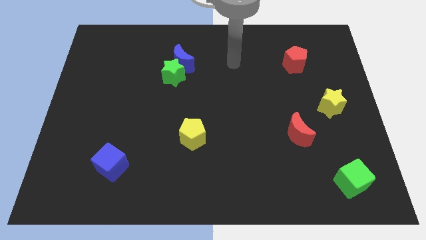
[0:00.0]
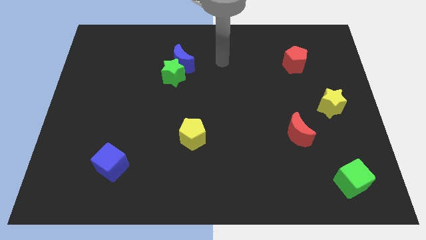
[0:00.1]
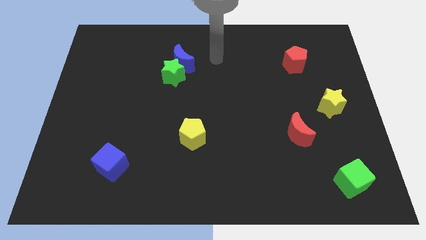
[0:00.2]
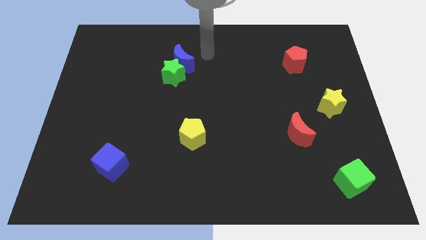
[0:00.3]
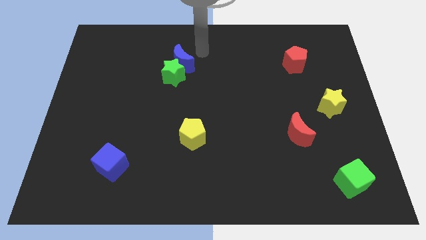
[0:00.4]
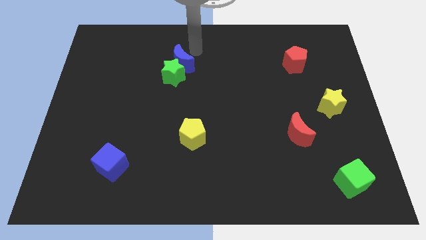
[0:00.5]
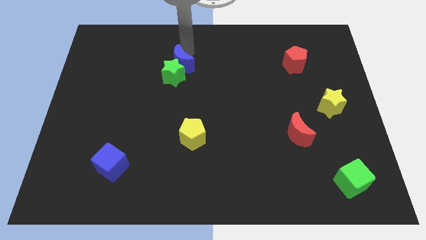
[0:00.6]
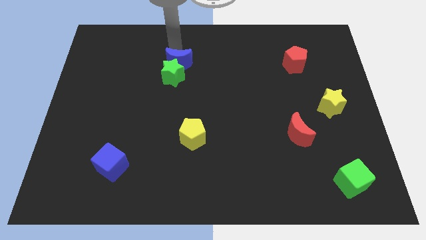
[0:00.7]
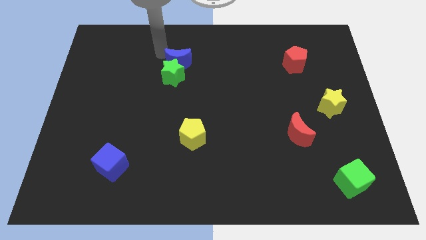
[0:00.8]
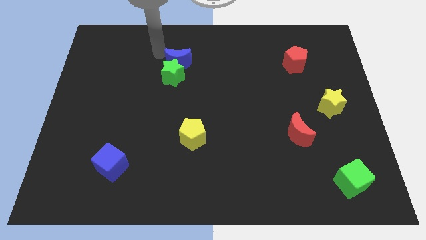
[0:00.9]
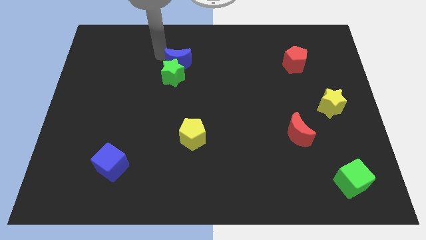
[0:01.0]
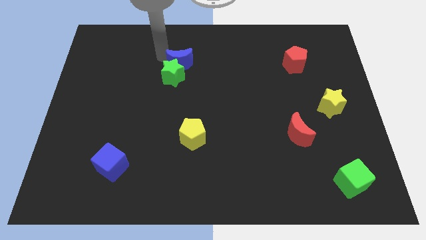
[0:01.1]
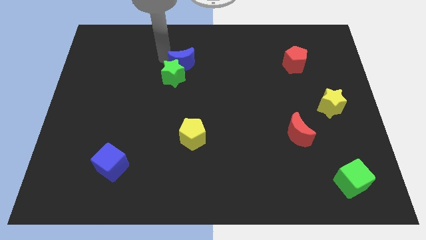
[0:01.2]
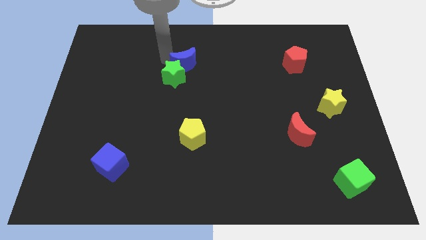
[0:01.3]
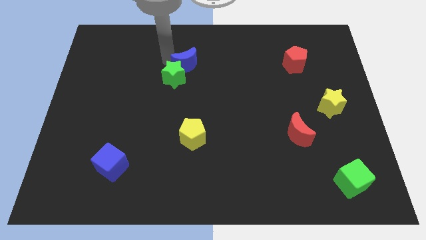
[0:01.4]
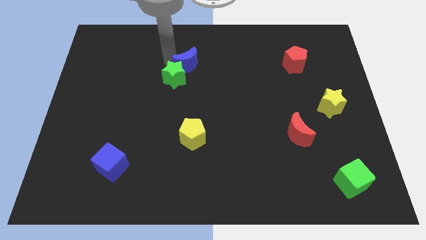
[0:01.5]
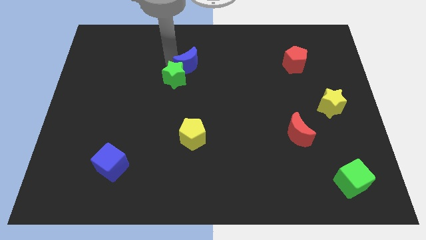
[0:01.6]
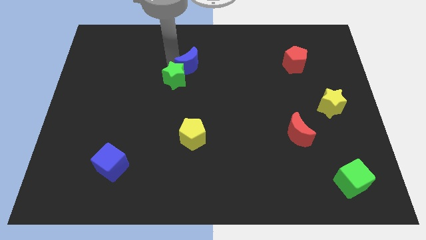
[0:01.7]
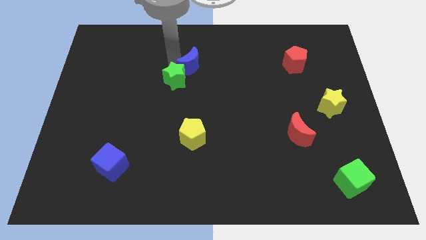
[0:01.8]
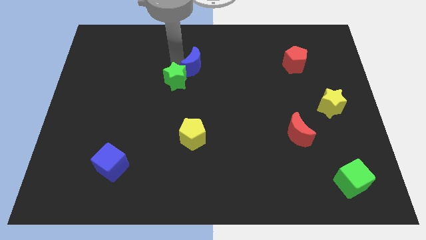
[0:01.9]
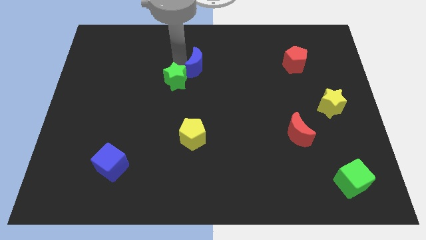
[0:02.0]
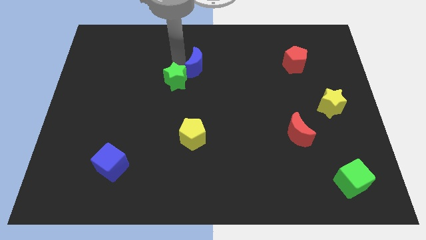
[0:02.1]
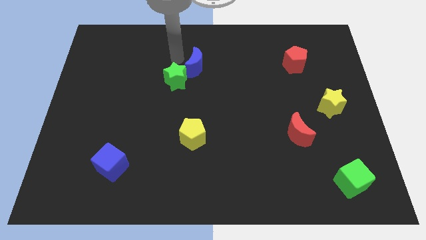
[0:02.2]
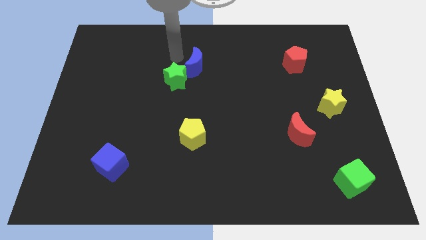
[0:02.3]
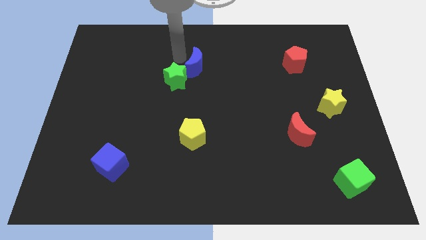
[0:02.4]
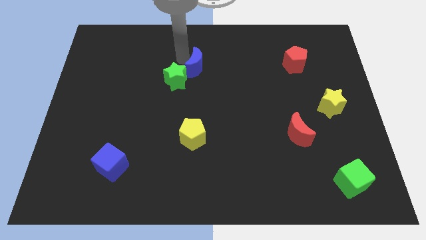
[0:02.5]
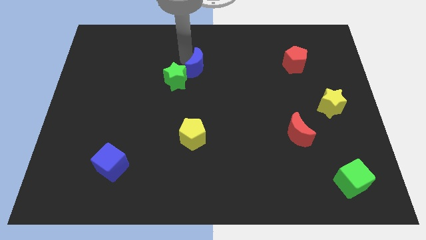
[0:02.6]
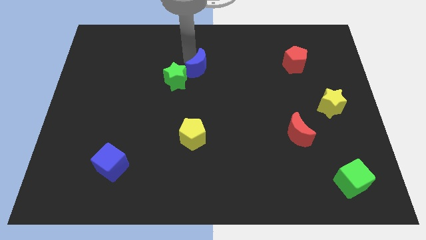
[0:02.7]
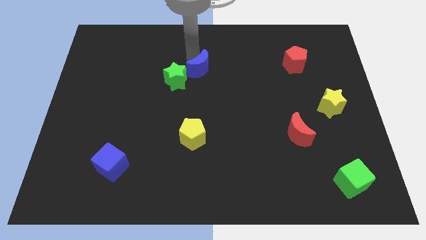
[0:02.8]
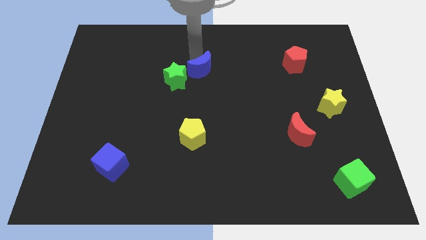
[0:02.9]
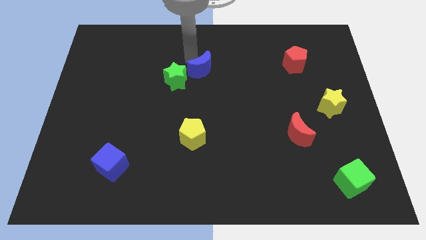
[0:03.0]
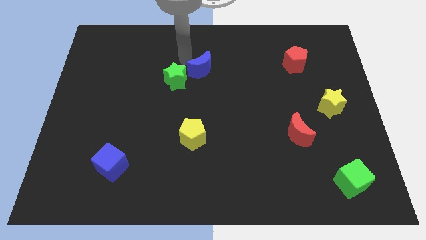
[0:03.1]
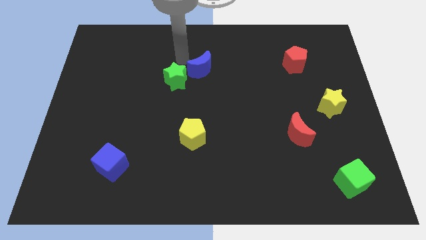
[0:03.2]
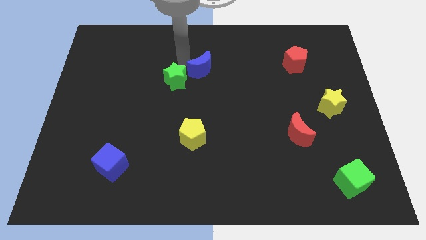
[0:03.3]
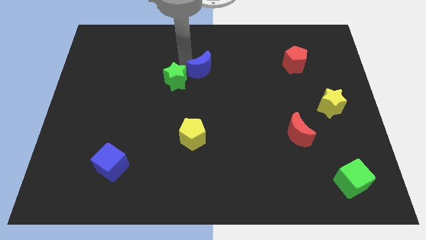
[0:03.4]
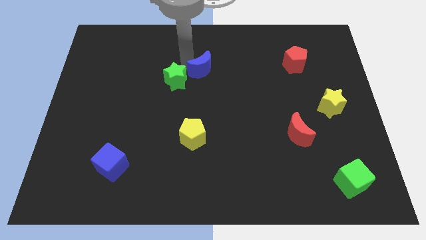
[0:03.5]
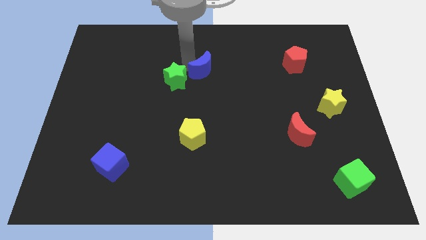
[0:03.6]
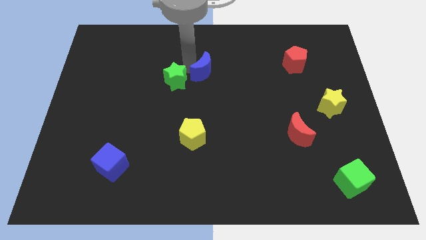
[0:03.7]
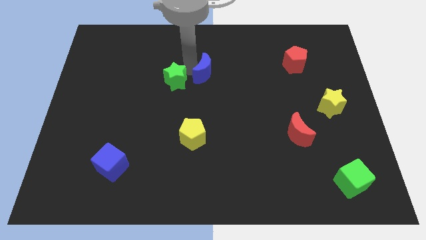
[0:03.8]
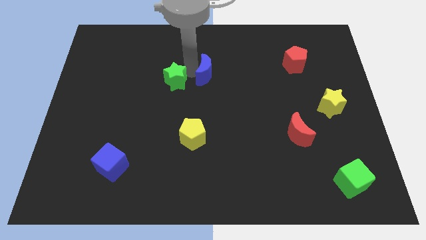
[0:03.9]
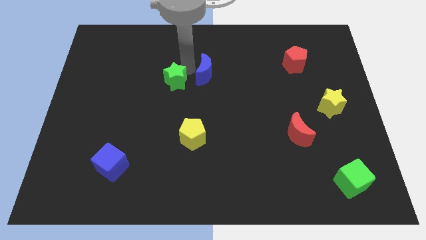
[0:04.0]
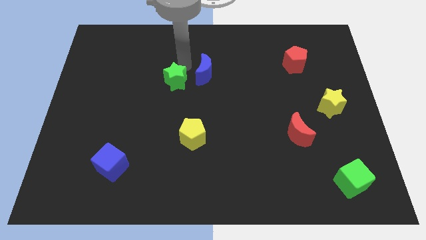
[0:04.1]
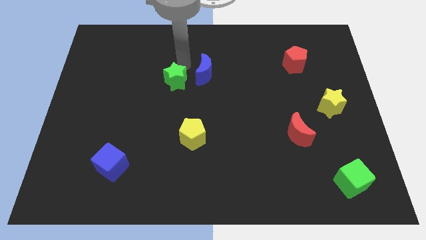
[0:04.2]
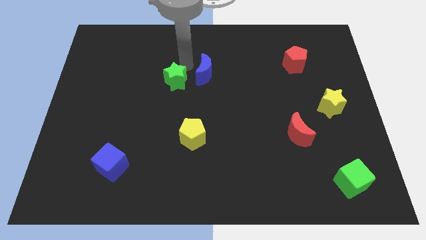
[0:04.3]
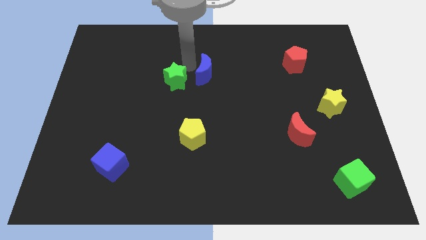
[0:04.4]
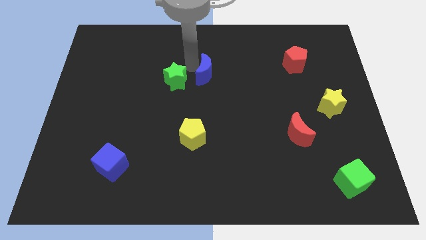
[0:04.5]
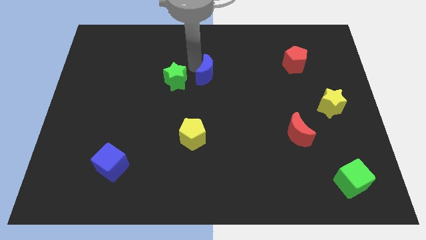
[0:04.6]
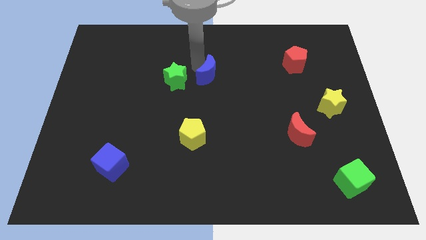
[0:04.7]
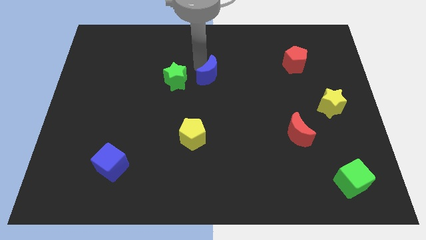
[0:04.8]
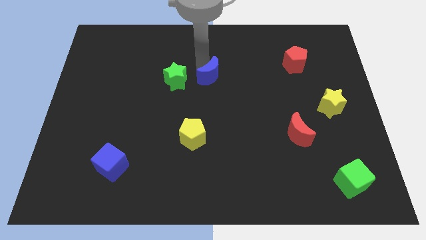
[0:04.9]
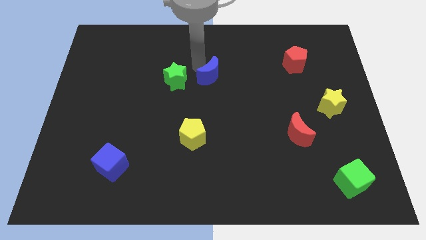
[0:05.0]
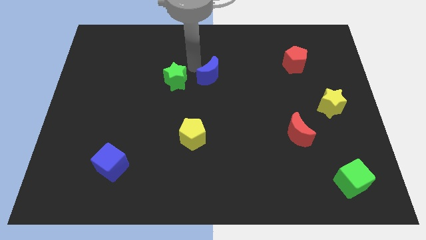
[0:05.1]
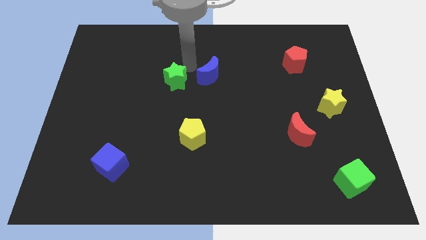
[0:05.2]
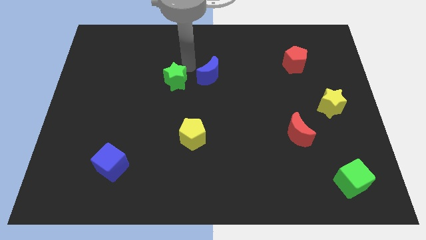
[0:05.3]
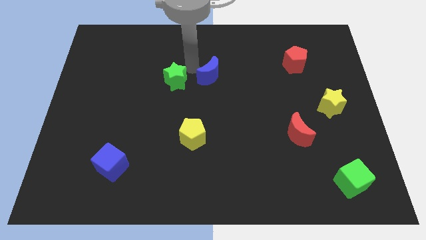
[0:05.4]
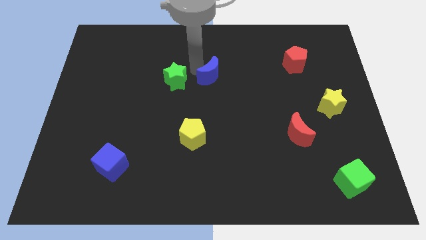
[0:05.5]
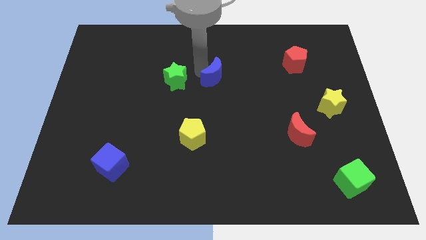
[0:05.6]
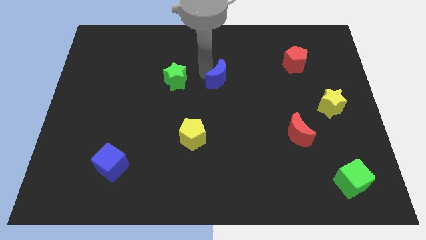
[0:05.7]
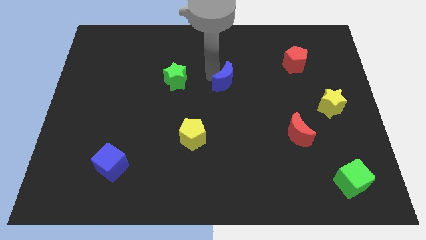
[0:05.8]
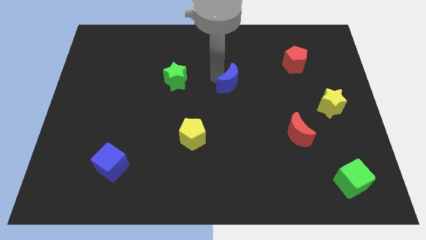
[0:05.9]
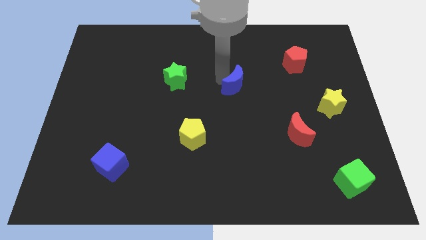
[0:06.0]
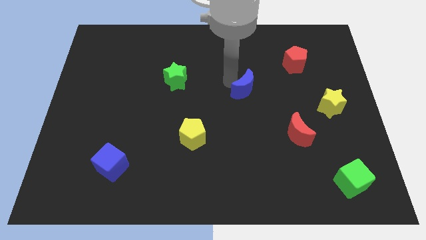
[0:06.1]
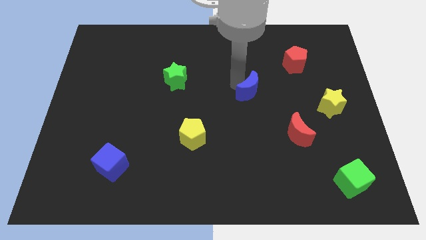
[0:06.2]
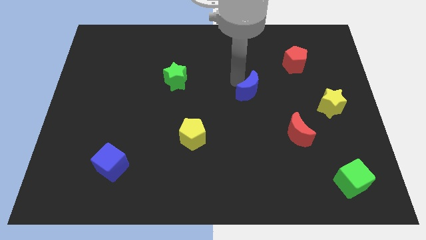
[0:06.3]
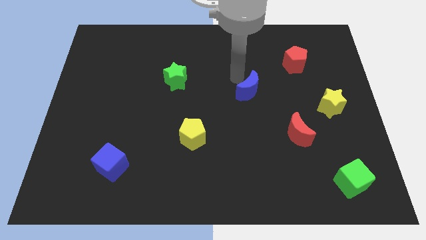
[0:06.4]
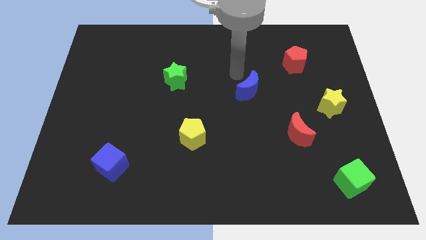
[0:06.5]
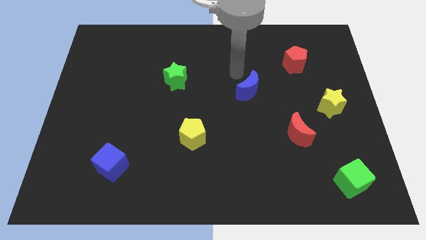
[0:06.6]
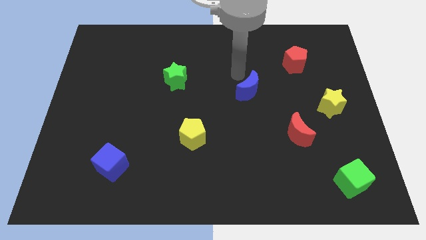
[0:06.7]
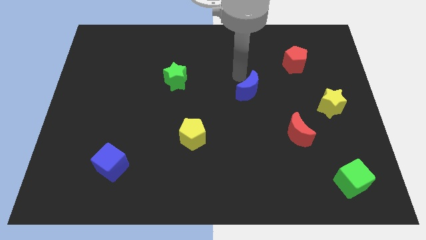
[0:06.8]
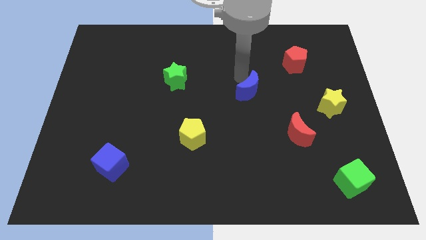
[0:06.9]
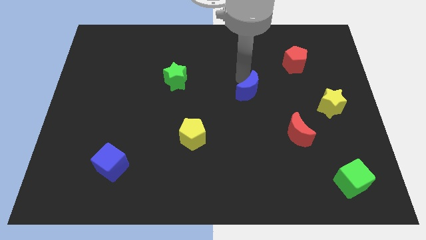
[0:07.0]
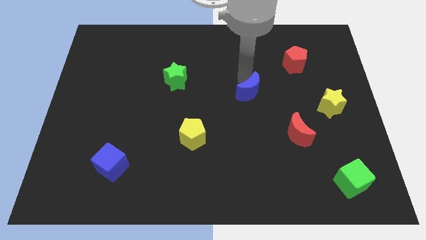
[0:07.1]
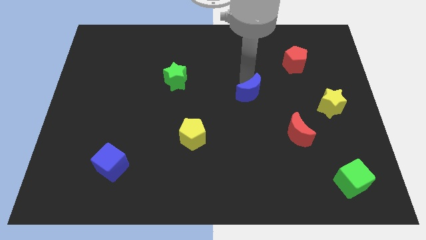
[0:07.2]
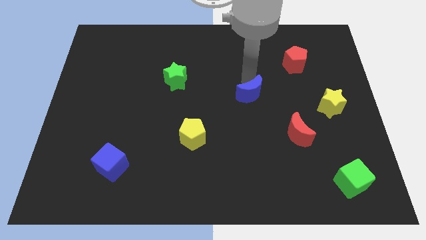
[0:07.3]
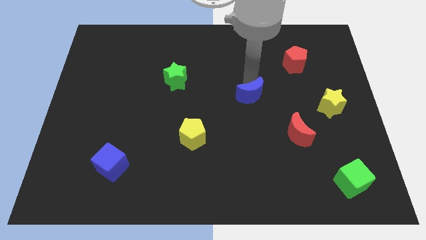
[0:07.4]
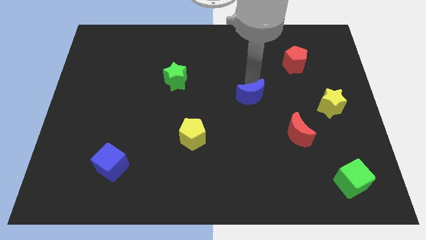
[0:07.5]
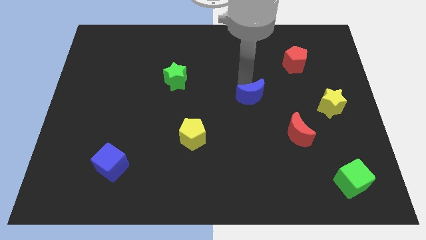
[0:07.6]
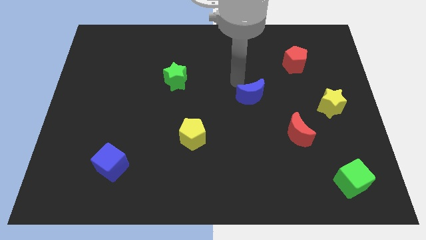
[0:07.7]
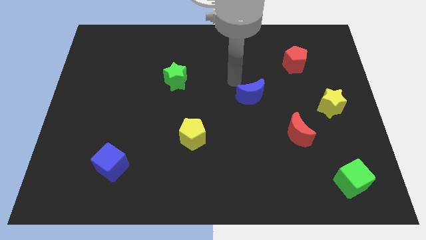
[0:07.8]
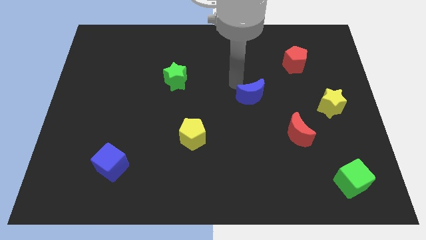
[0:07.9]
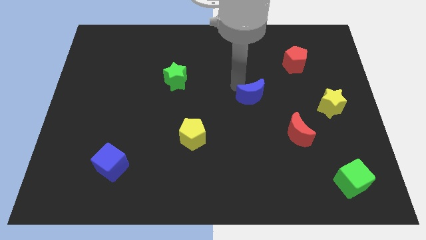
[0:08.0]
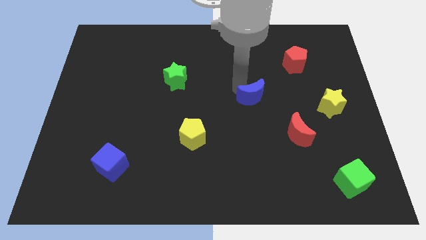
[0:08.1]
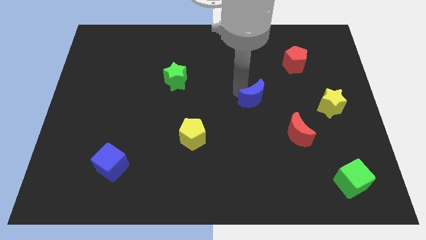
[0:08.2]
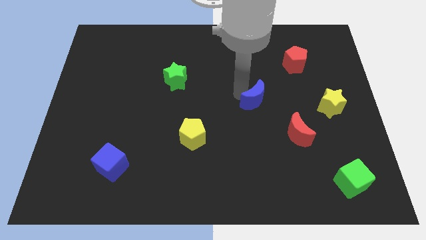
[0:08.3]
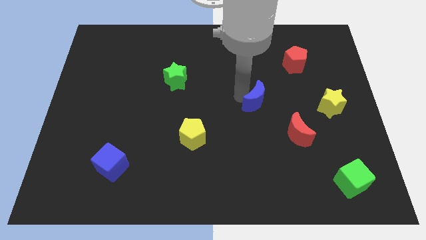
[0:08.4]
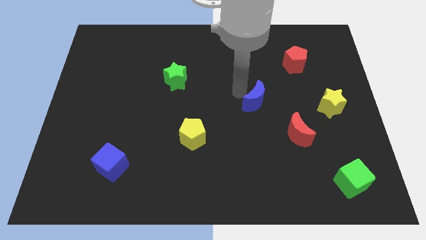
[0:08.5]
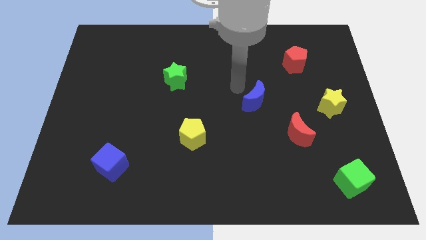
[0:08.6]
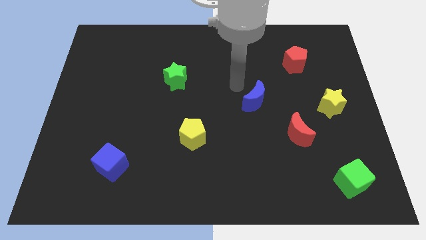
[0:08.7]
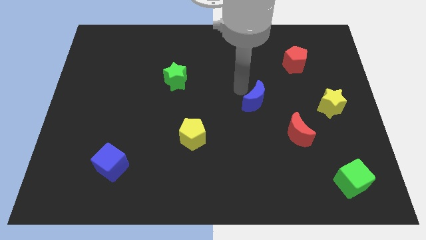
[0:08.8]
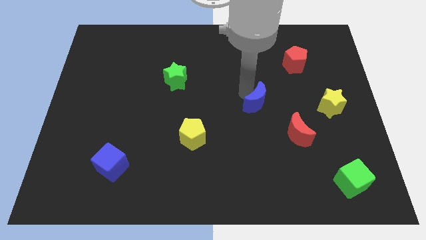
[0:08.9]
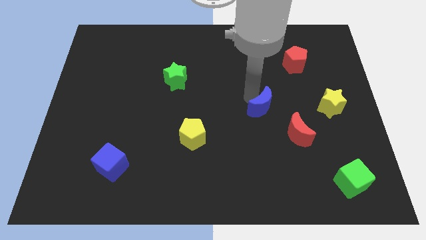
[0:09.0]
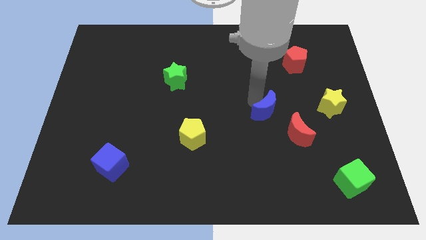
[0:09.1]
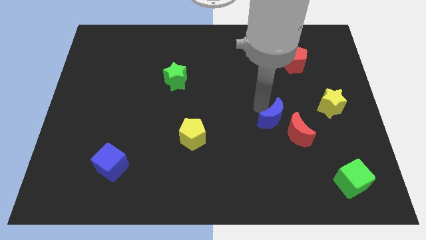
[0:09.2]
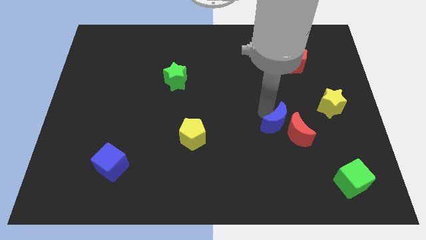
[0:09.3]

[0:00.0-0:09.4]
slide the blue moon next to the red moon
